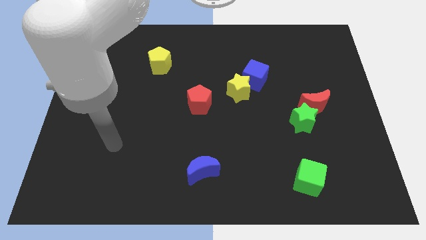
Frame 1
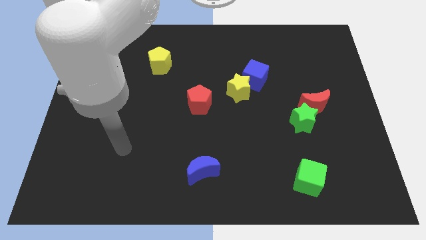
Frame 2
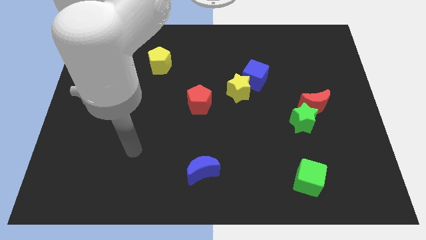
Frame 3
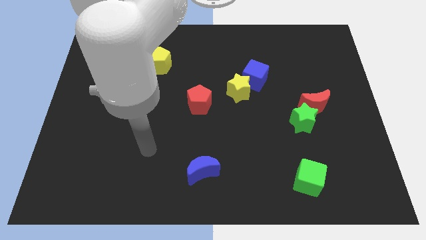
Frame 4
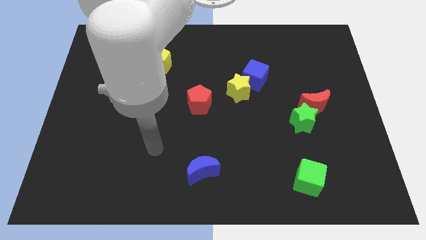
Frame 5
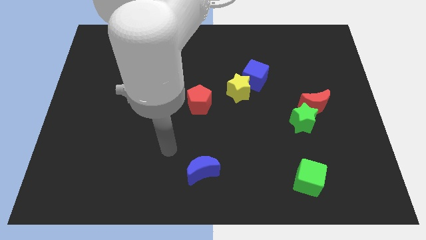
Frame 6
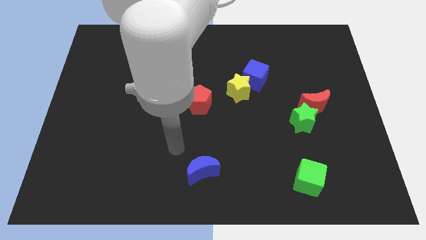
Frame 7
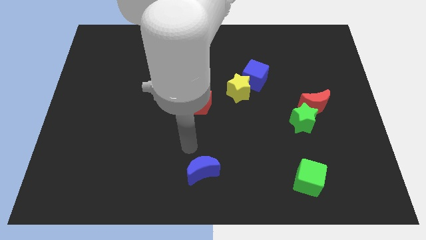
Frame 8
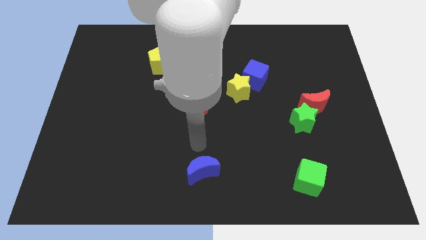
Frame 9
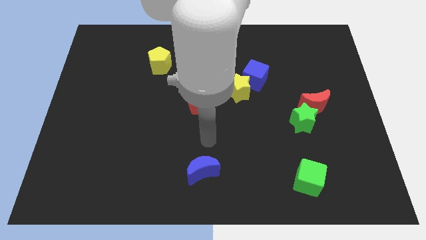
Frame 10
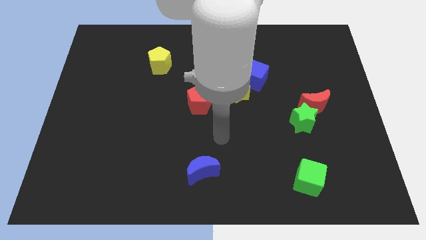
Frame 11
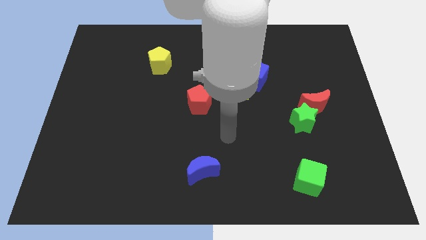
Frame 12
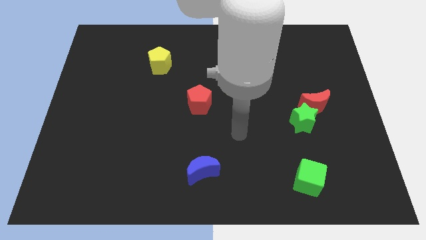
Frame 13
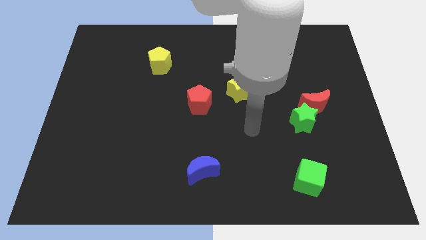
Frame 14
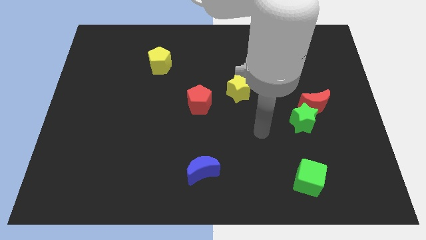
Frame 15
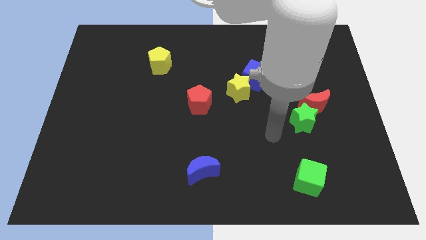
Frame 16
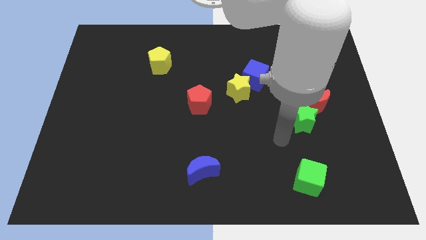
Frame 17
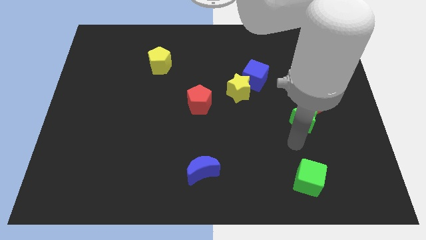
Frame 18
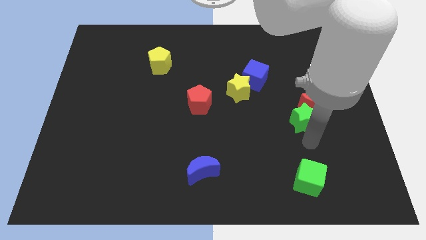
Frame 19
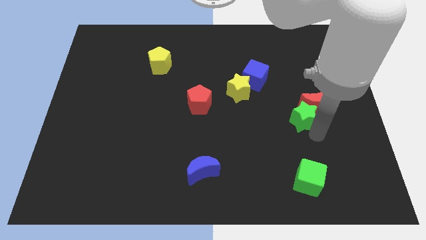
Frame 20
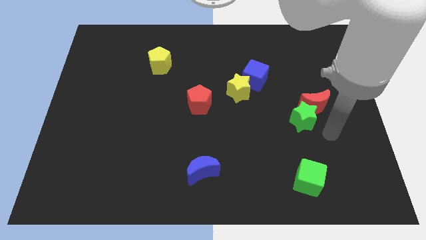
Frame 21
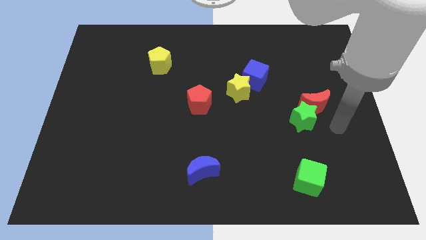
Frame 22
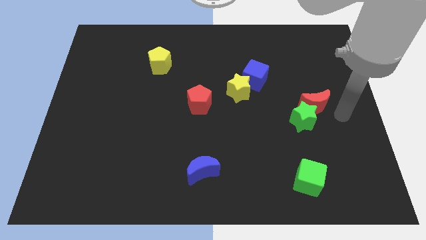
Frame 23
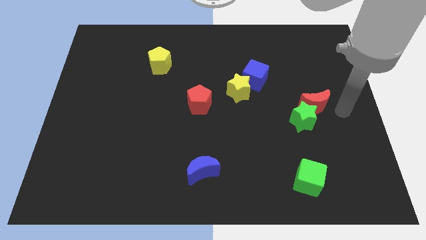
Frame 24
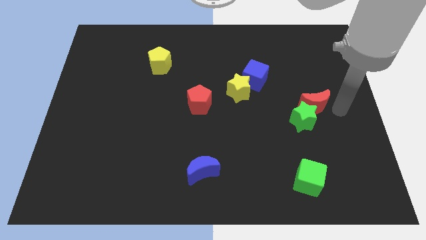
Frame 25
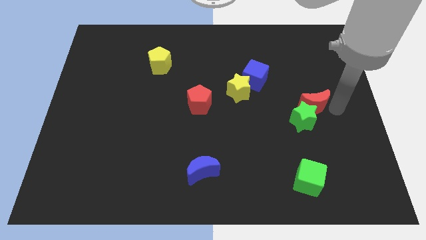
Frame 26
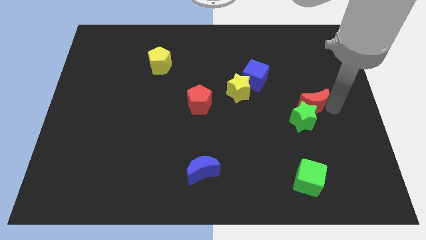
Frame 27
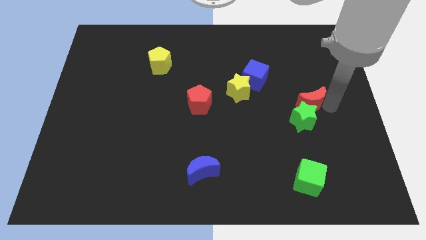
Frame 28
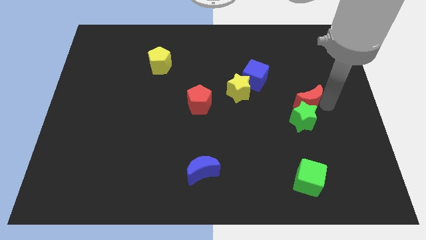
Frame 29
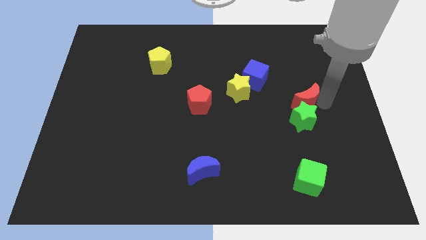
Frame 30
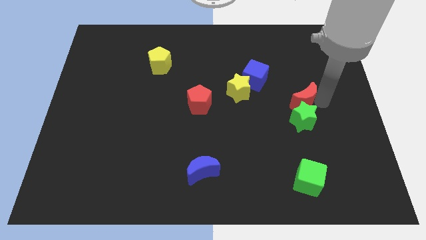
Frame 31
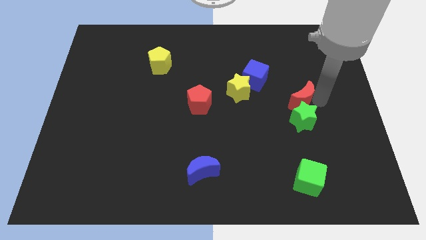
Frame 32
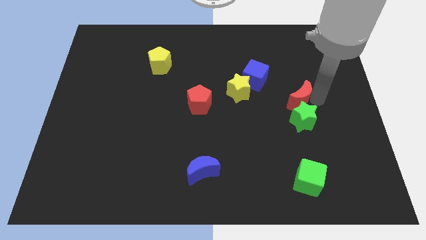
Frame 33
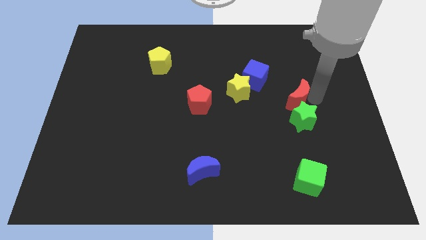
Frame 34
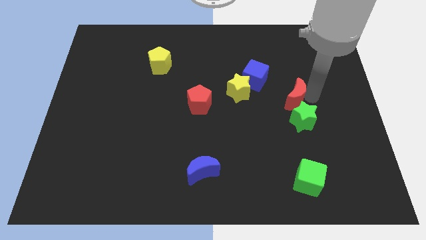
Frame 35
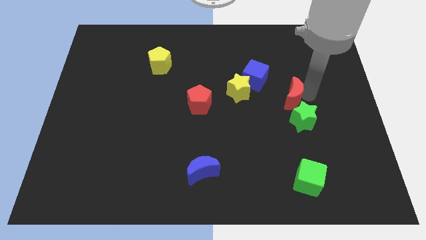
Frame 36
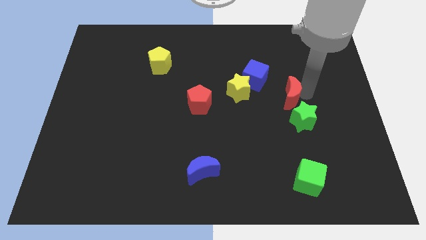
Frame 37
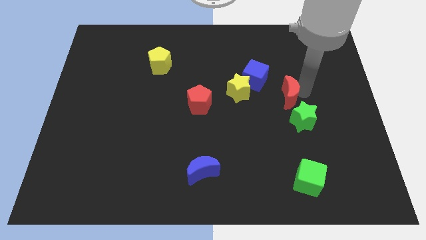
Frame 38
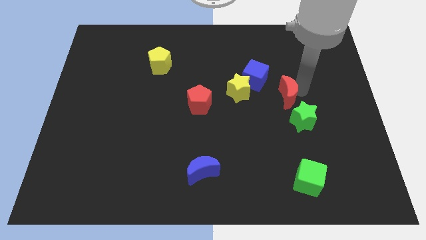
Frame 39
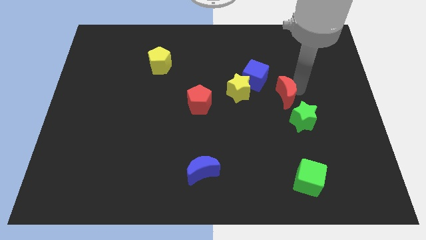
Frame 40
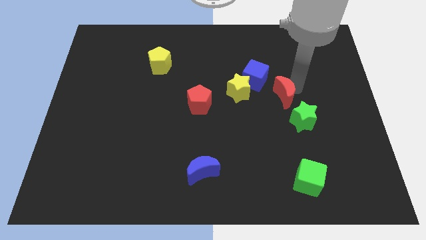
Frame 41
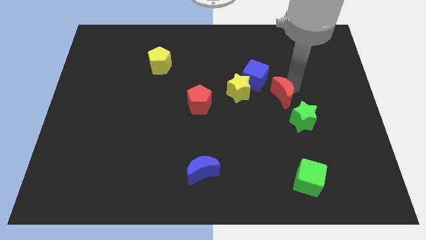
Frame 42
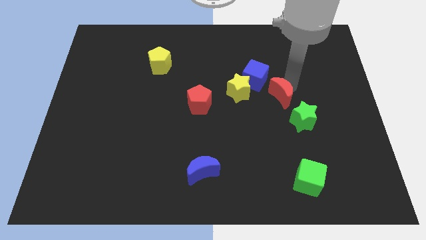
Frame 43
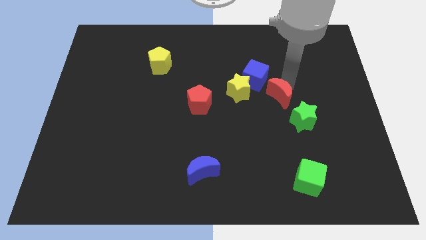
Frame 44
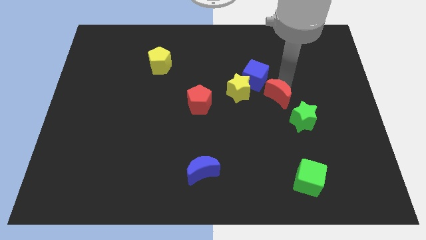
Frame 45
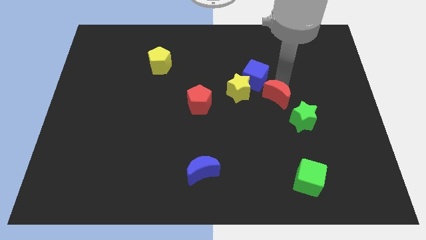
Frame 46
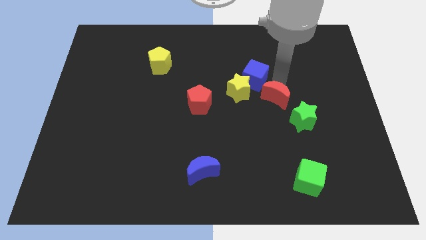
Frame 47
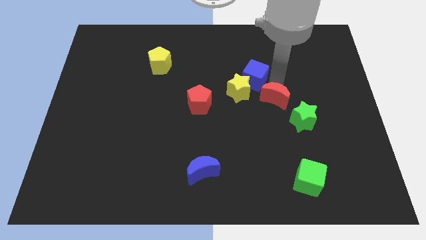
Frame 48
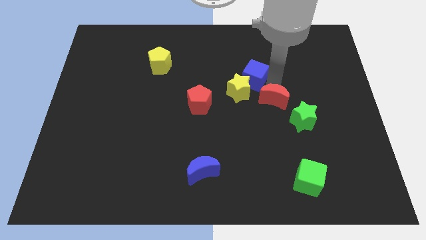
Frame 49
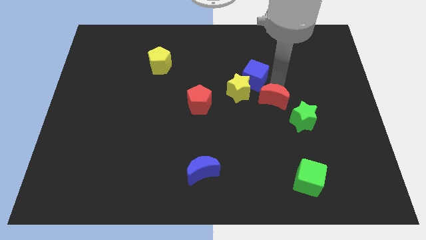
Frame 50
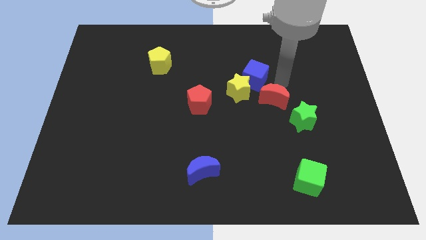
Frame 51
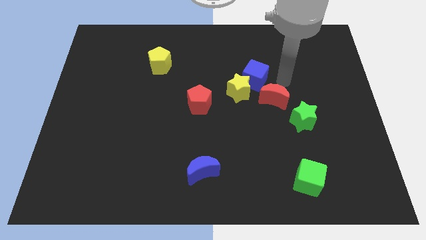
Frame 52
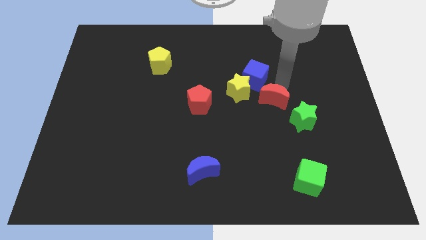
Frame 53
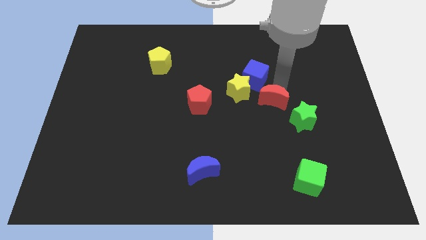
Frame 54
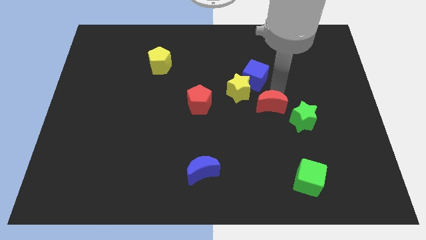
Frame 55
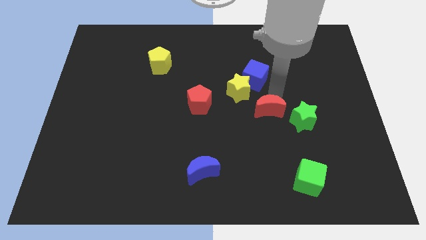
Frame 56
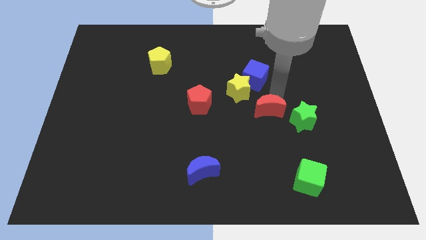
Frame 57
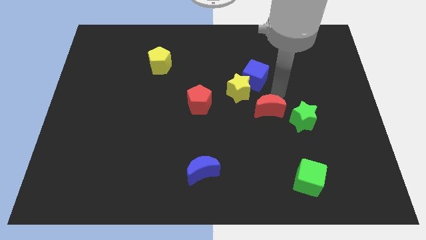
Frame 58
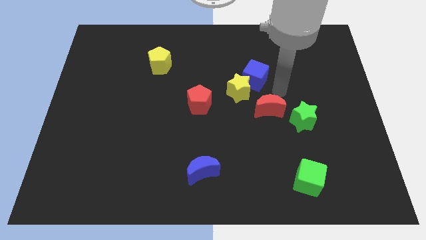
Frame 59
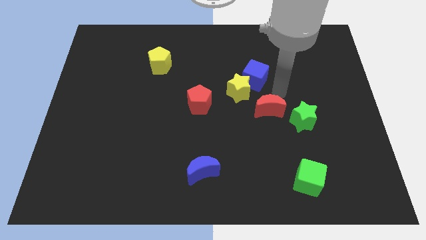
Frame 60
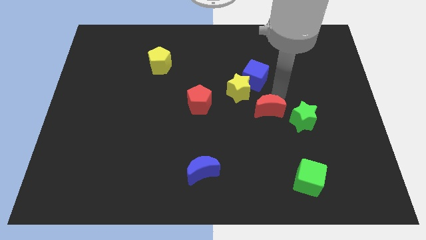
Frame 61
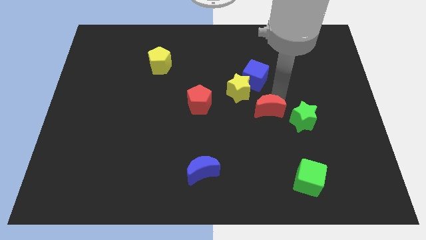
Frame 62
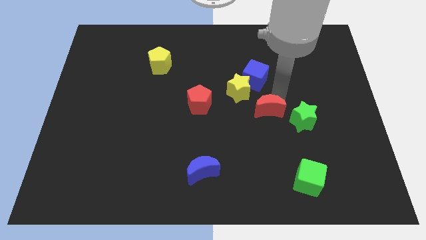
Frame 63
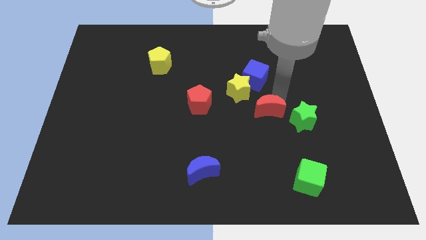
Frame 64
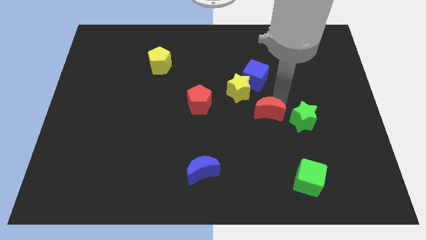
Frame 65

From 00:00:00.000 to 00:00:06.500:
move the red moon slightly downwards and then left

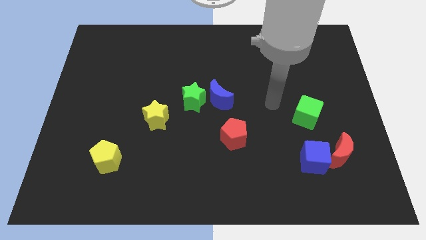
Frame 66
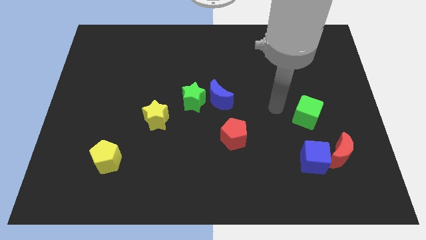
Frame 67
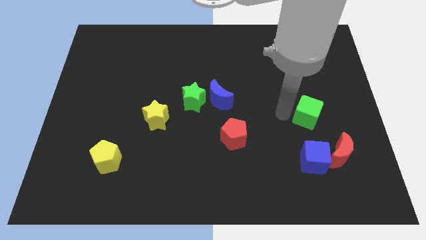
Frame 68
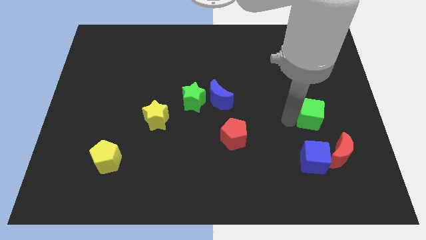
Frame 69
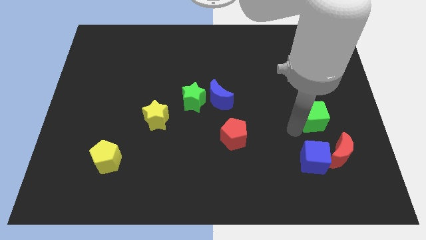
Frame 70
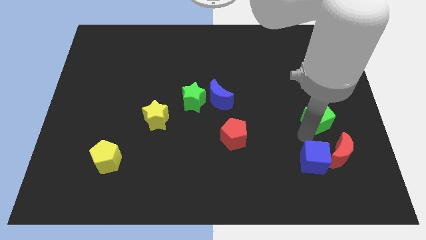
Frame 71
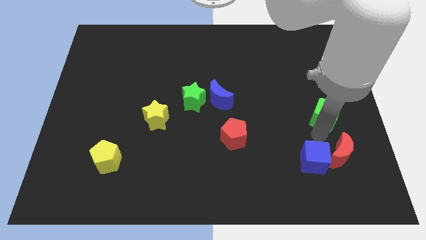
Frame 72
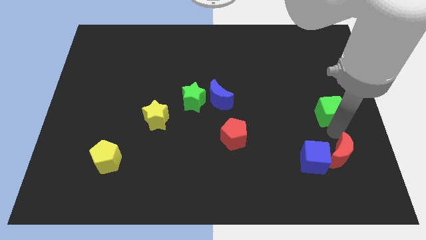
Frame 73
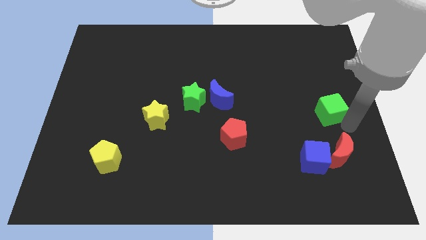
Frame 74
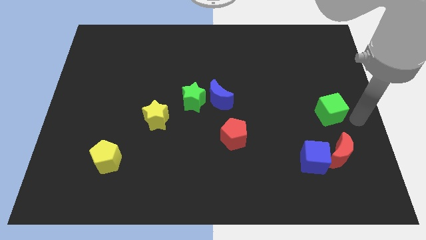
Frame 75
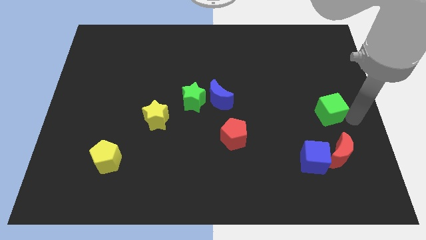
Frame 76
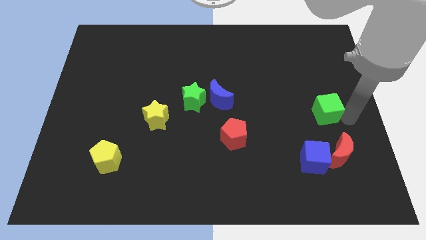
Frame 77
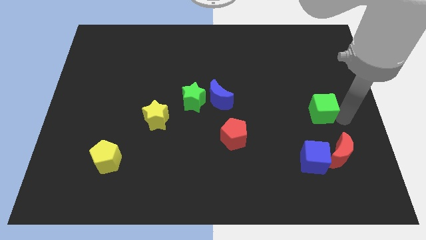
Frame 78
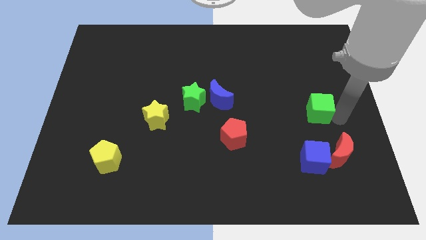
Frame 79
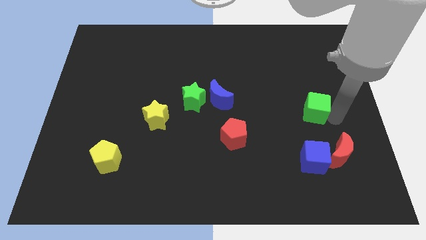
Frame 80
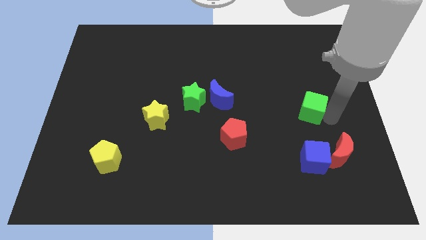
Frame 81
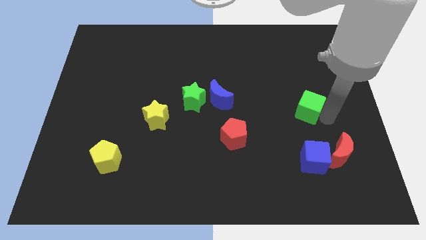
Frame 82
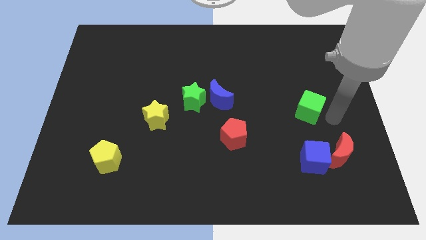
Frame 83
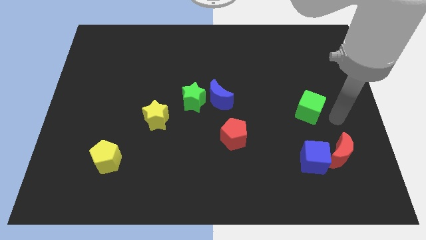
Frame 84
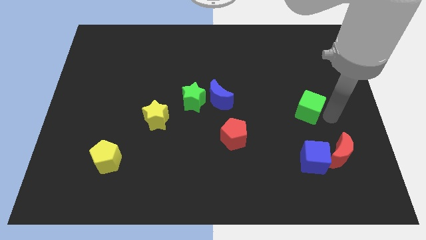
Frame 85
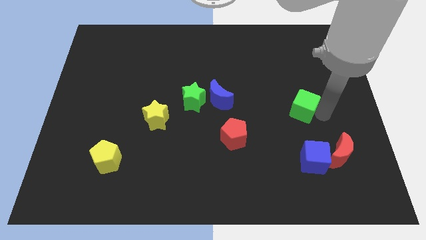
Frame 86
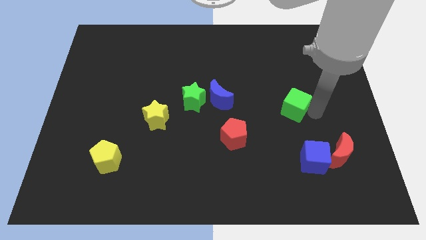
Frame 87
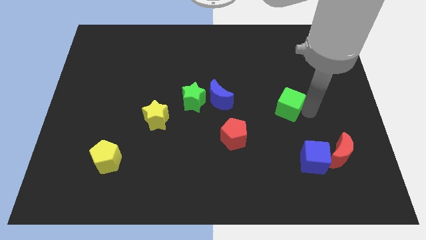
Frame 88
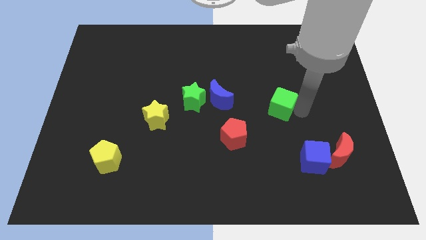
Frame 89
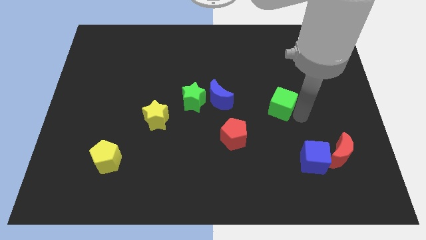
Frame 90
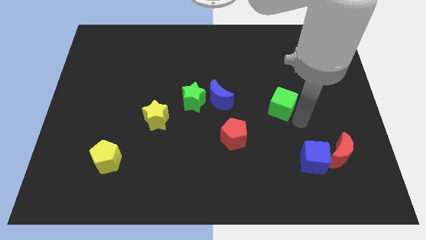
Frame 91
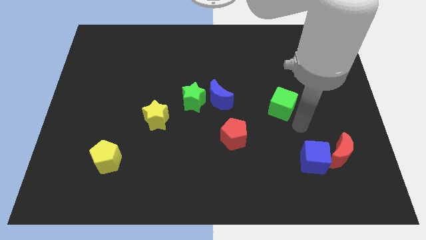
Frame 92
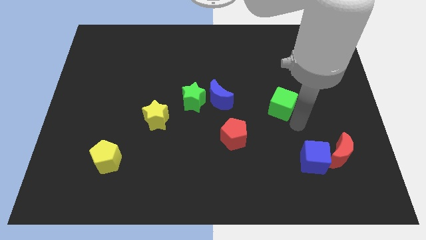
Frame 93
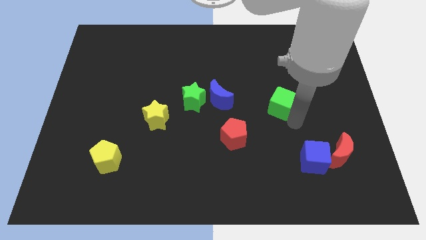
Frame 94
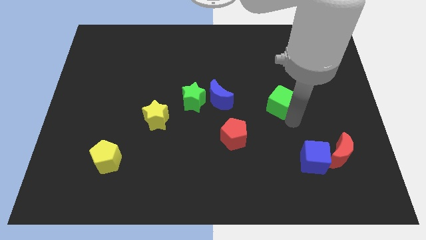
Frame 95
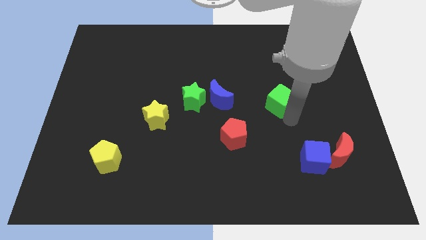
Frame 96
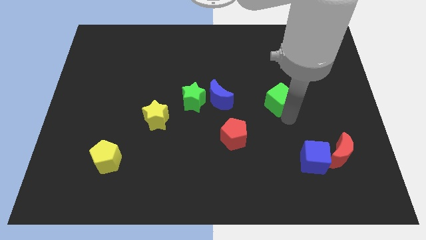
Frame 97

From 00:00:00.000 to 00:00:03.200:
slide the green cube diagonally up and left a little bit
